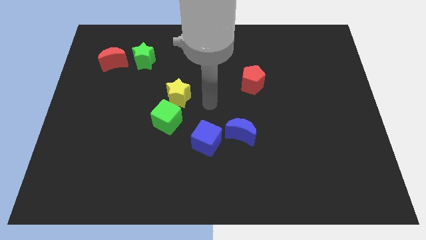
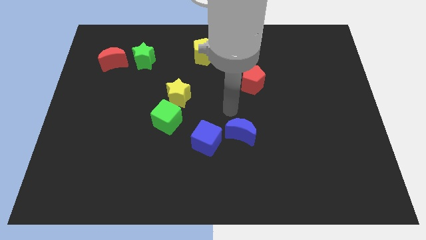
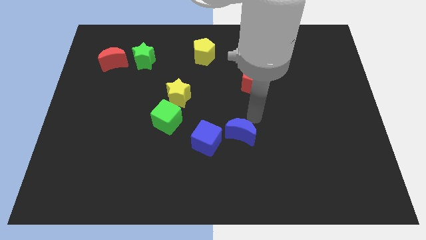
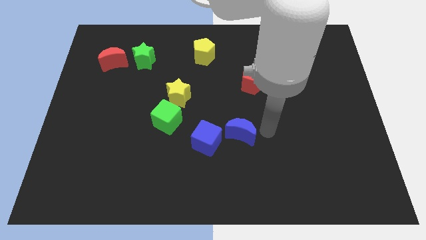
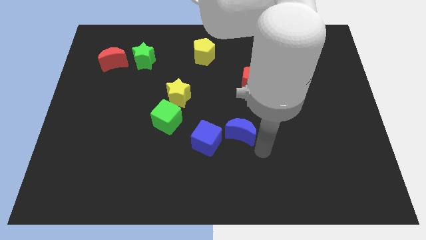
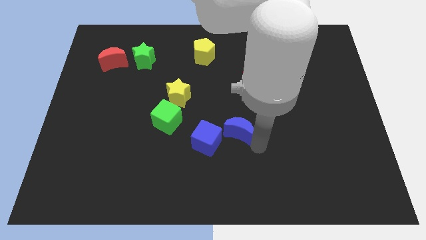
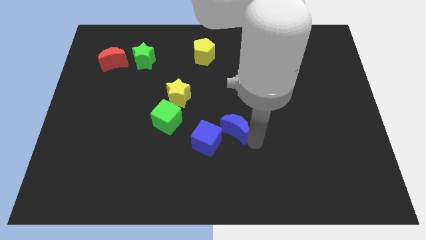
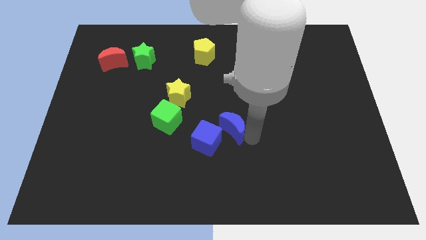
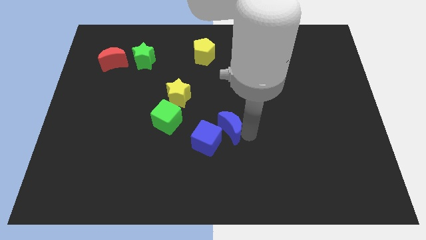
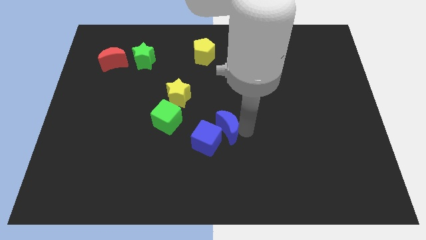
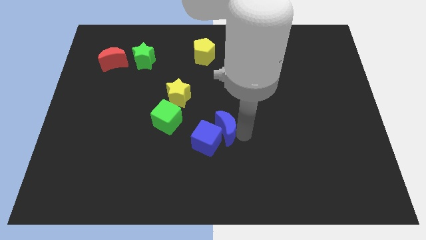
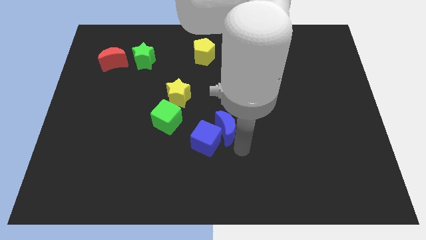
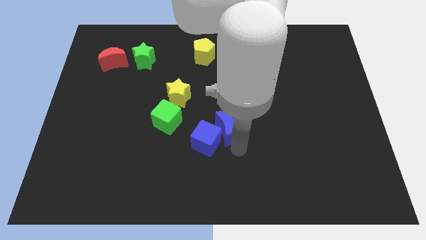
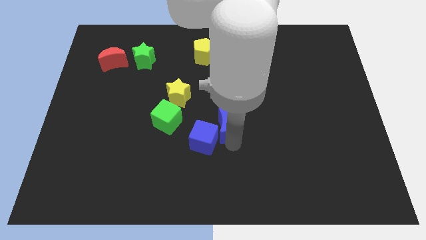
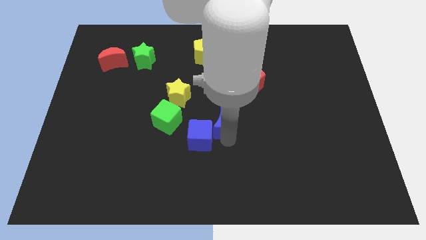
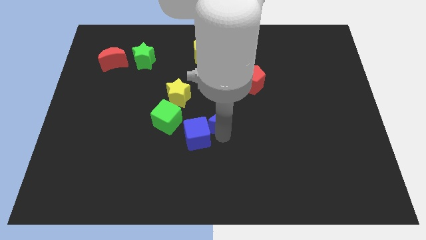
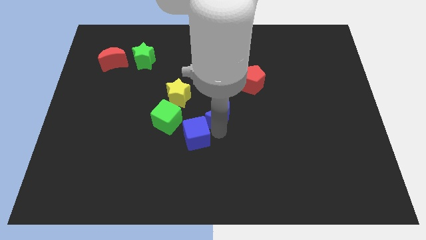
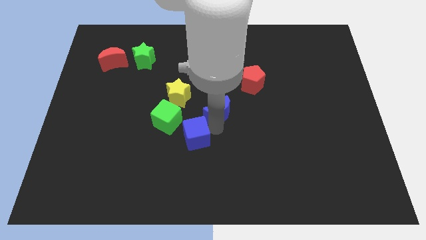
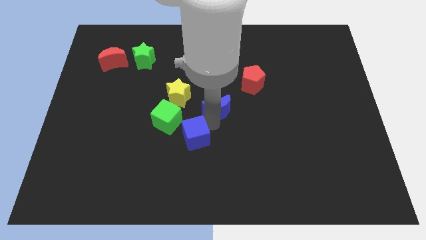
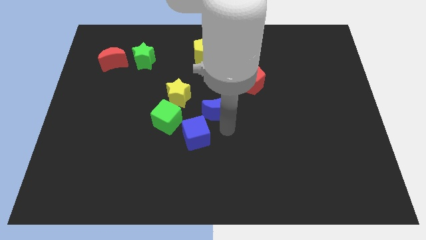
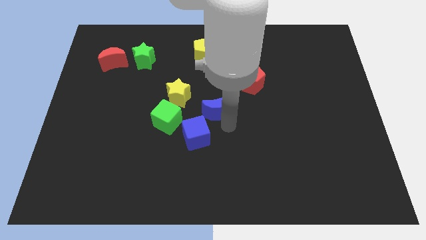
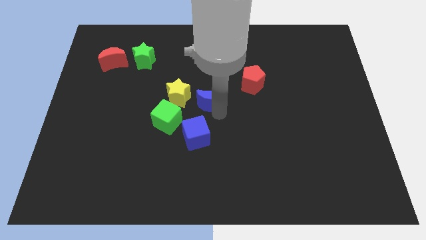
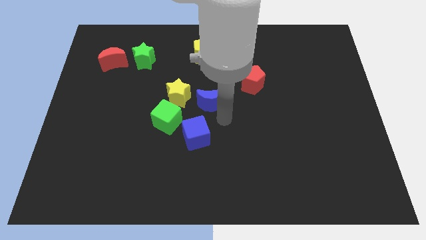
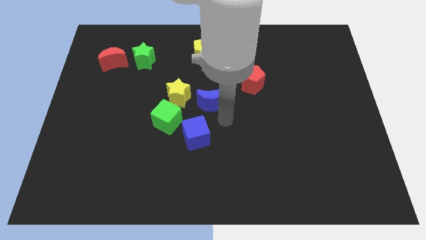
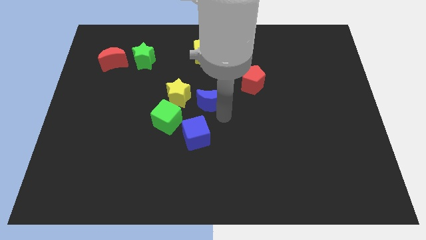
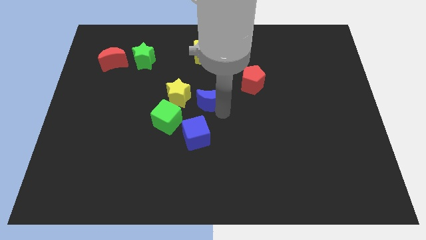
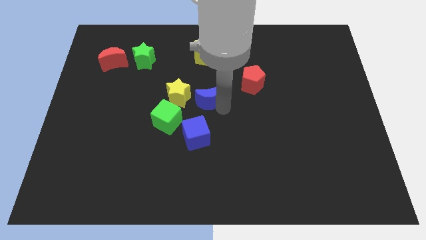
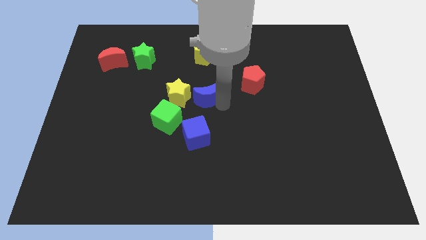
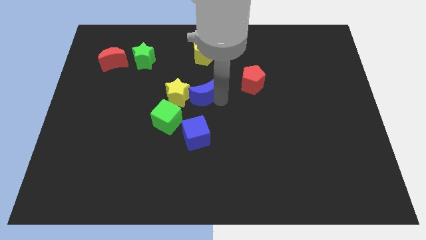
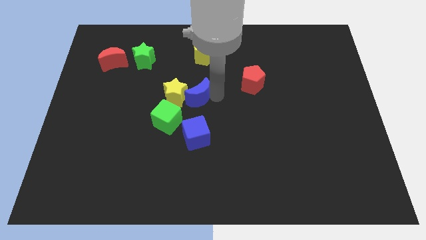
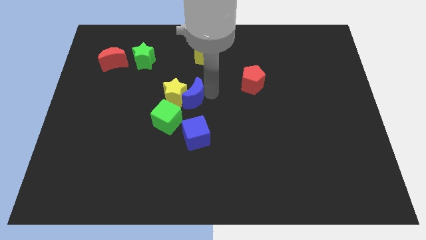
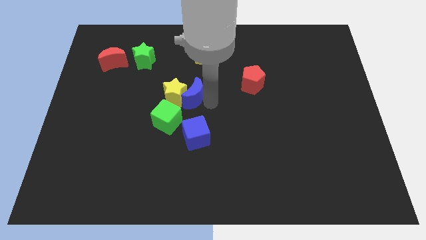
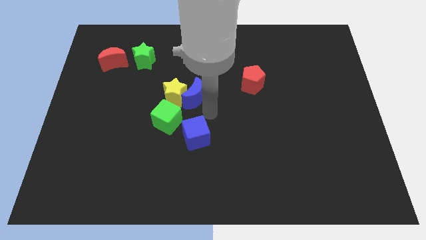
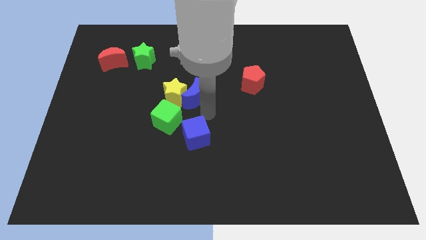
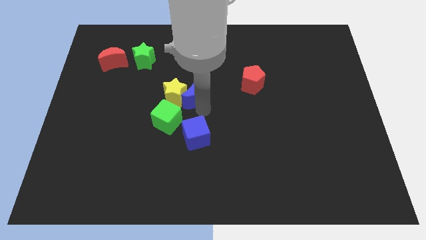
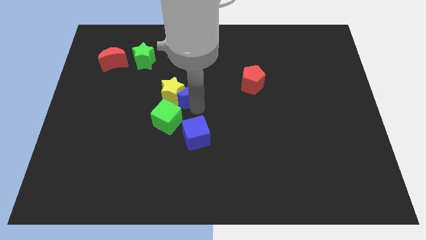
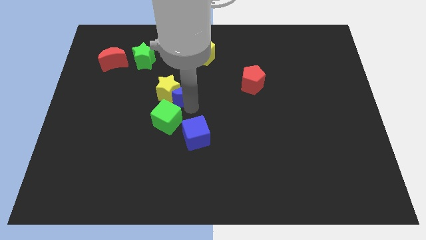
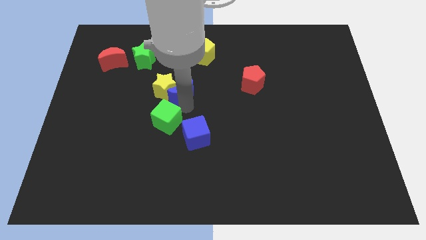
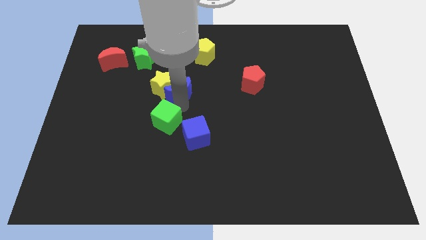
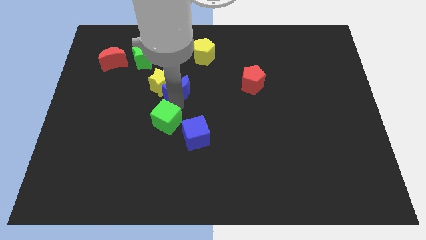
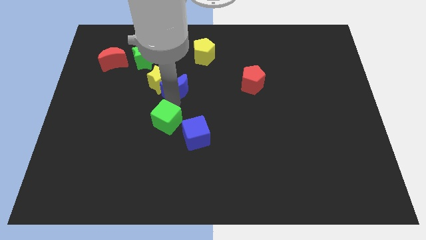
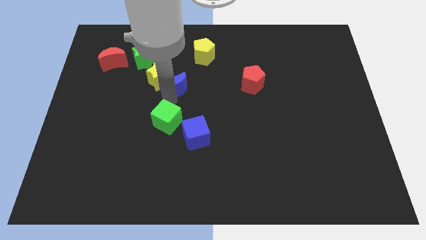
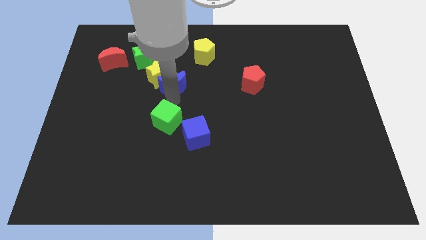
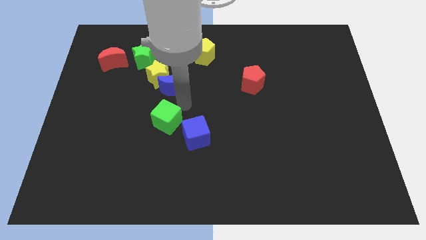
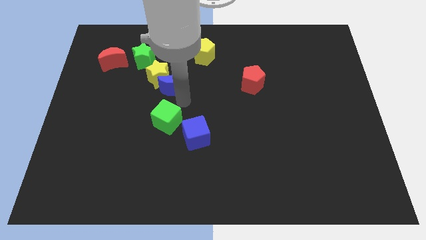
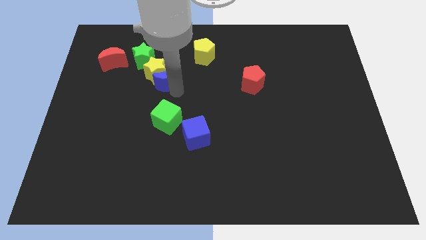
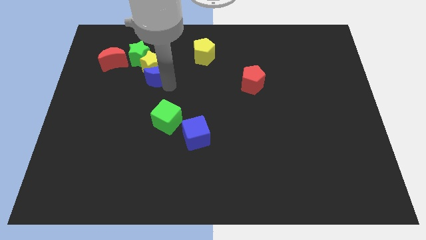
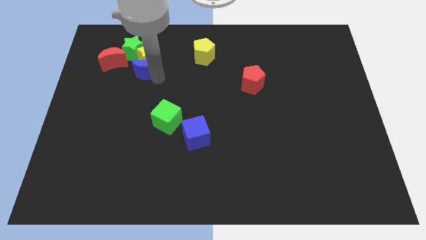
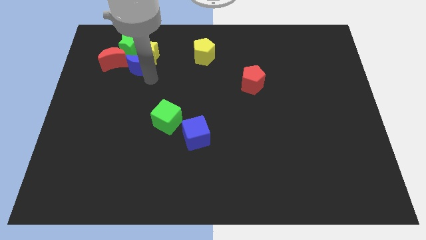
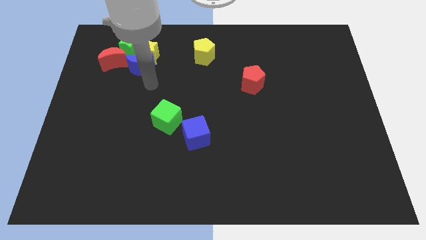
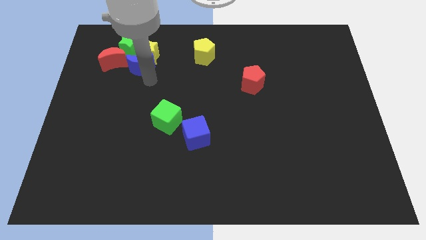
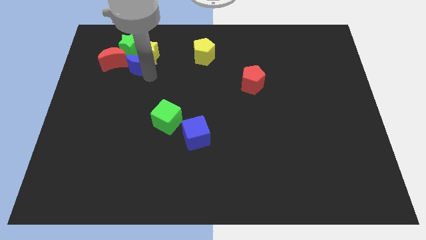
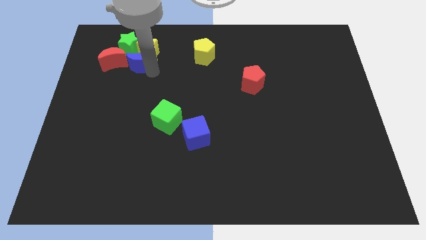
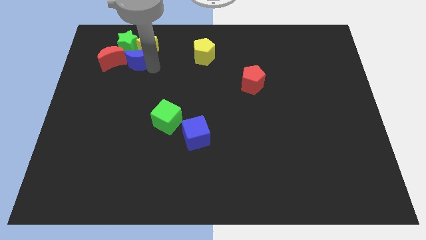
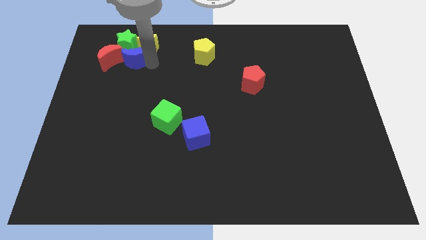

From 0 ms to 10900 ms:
push the blue moon to the green star
